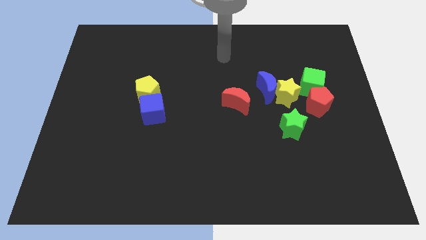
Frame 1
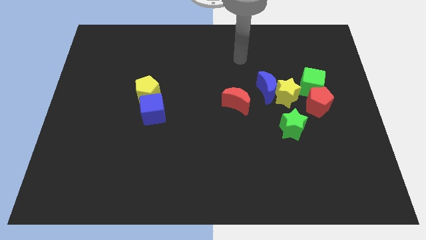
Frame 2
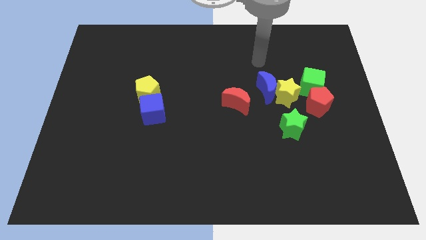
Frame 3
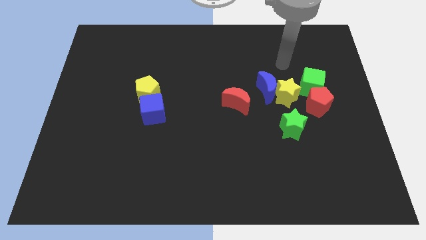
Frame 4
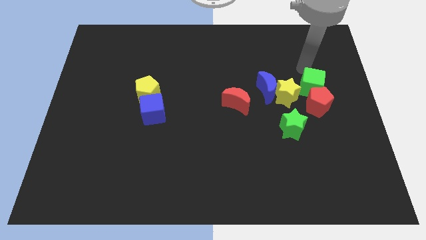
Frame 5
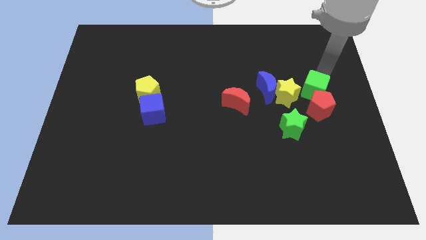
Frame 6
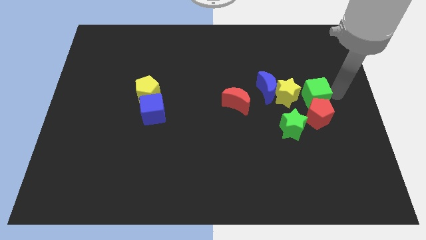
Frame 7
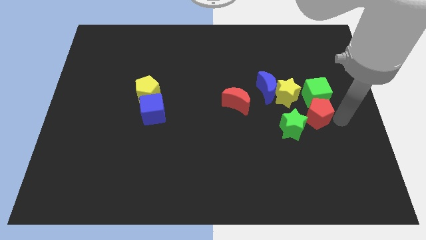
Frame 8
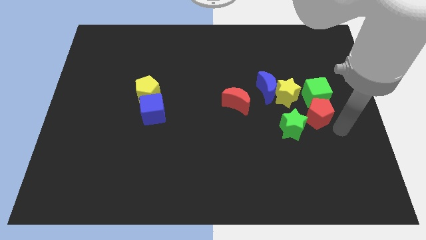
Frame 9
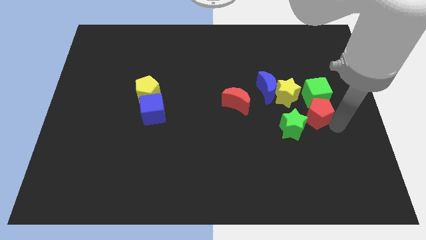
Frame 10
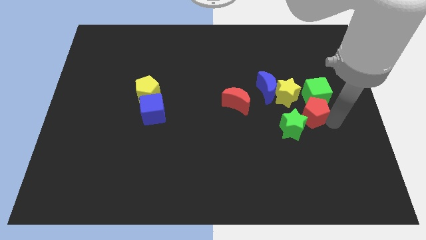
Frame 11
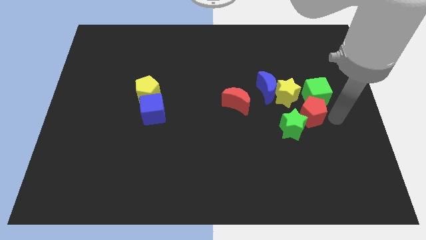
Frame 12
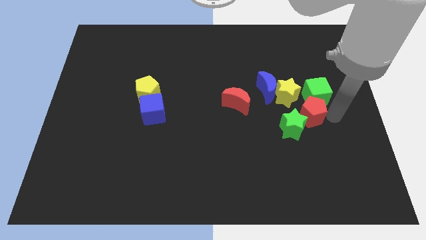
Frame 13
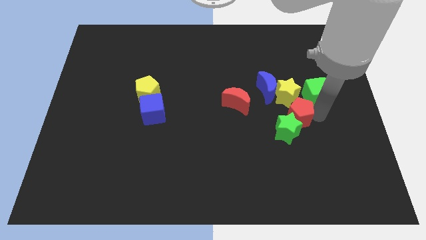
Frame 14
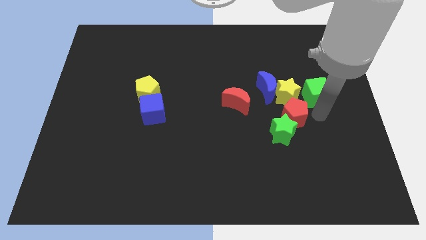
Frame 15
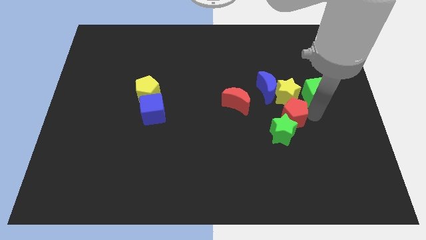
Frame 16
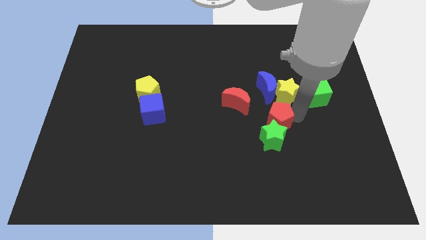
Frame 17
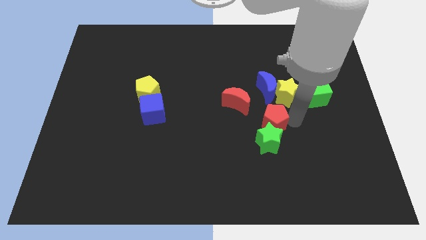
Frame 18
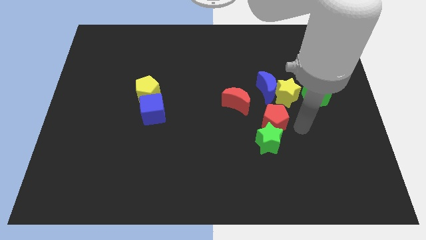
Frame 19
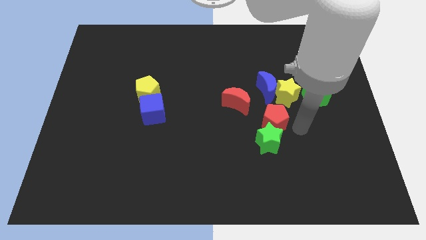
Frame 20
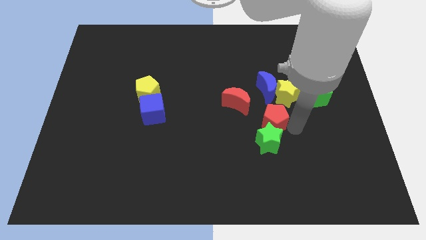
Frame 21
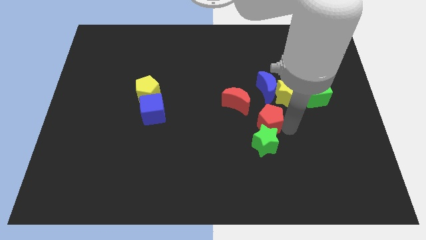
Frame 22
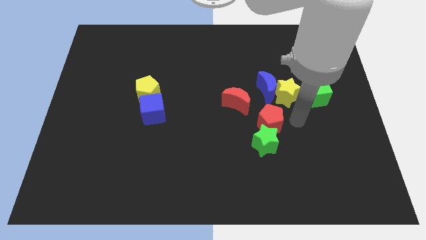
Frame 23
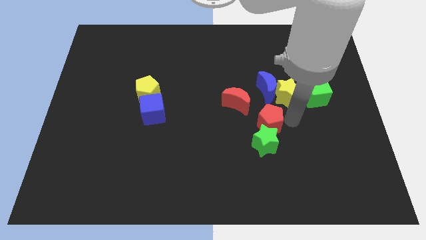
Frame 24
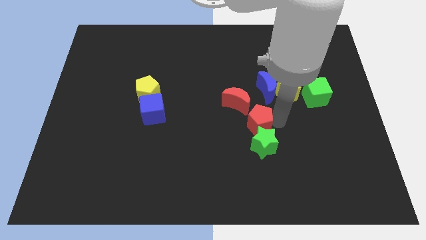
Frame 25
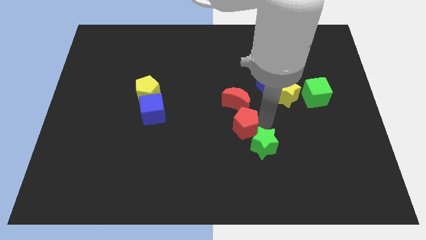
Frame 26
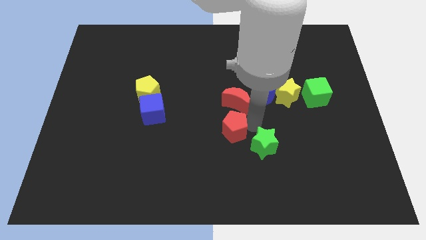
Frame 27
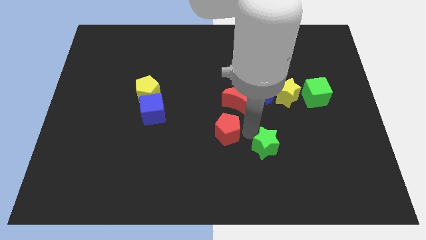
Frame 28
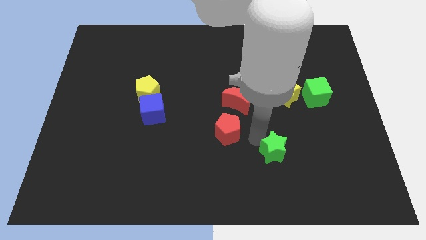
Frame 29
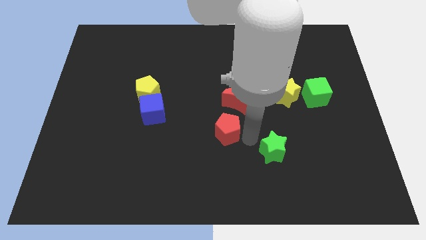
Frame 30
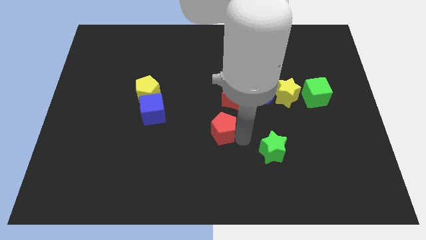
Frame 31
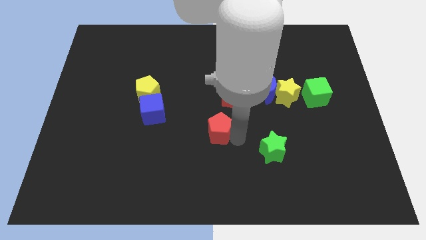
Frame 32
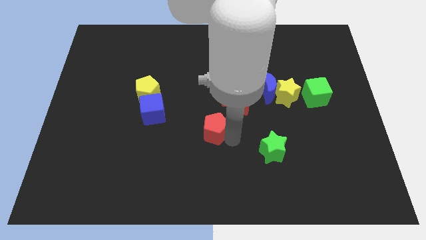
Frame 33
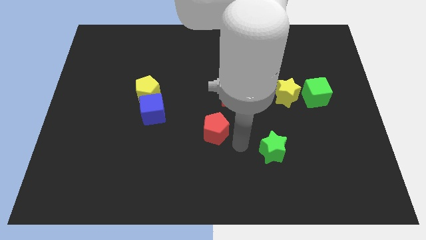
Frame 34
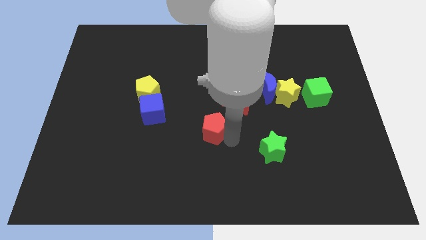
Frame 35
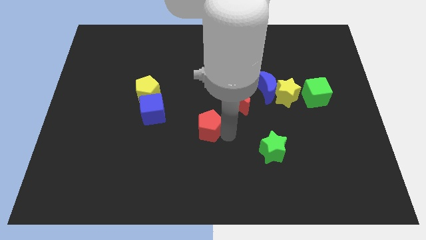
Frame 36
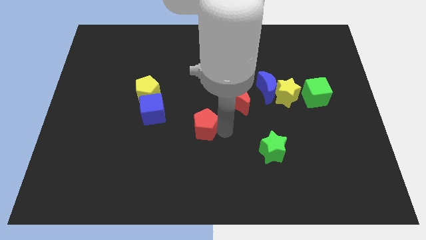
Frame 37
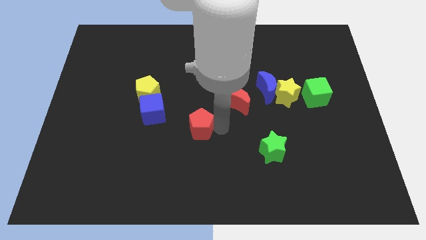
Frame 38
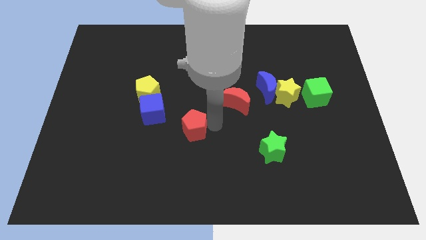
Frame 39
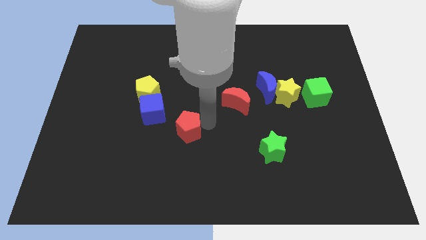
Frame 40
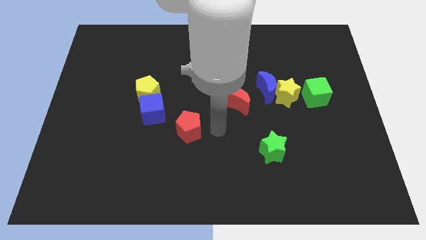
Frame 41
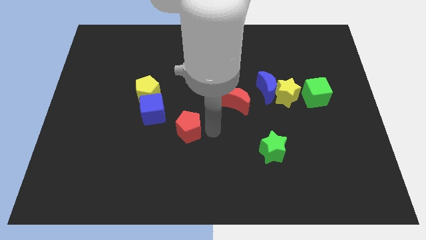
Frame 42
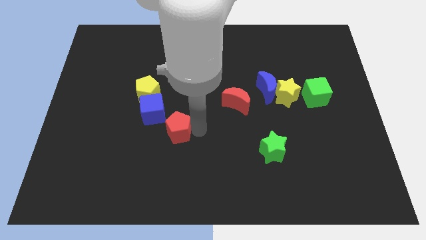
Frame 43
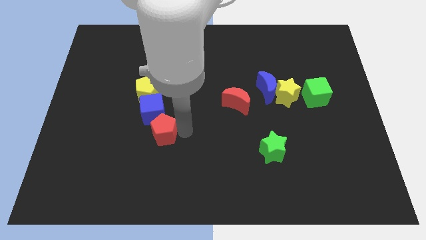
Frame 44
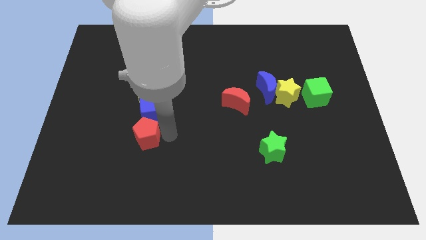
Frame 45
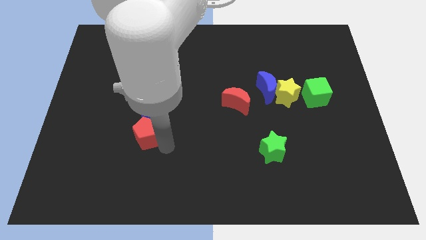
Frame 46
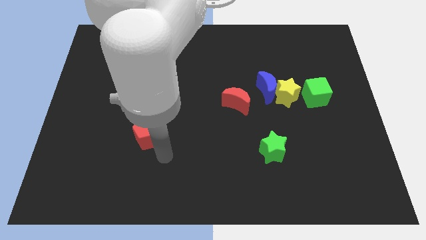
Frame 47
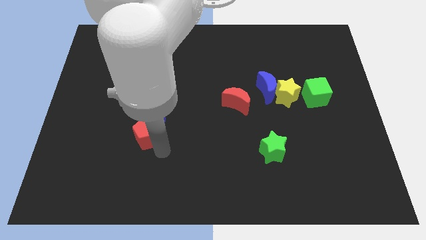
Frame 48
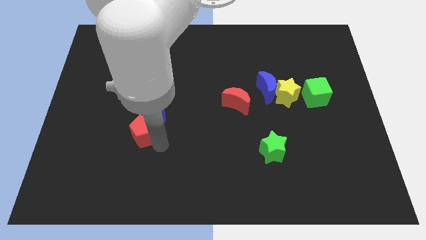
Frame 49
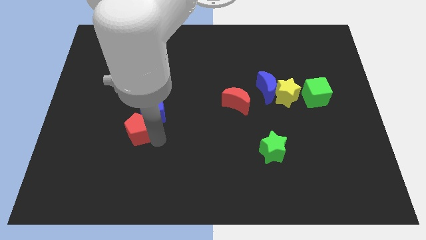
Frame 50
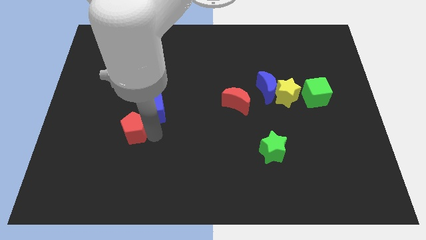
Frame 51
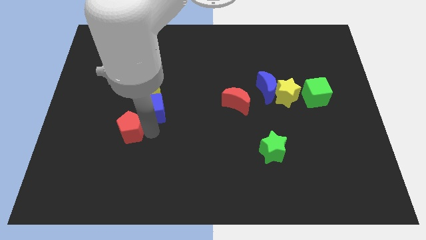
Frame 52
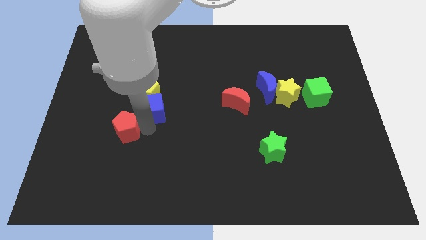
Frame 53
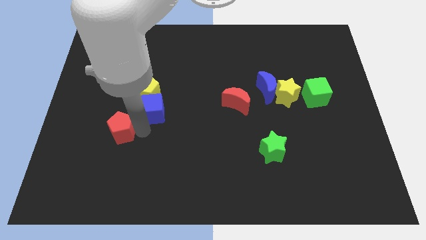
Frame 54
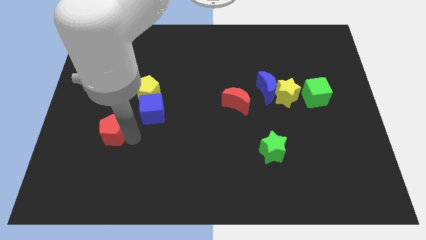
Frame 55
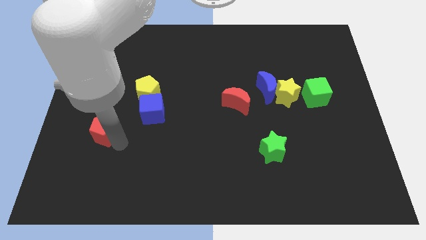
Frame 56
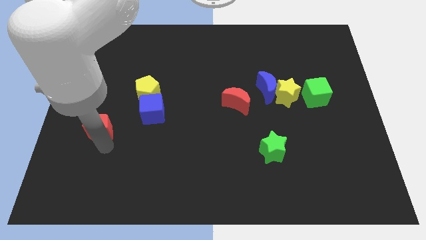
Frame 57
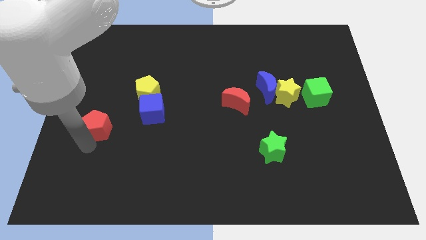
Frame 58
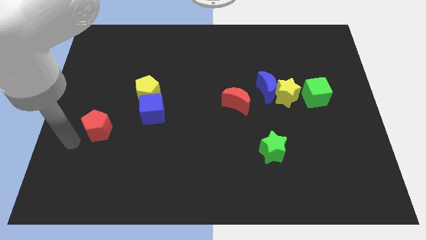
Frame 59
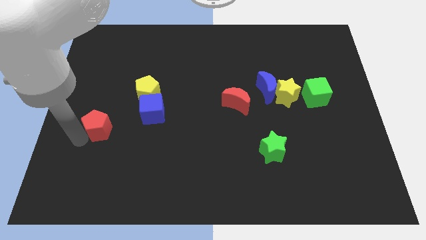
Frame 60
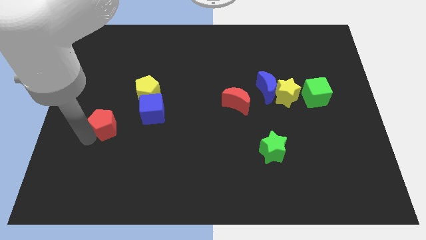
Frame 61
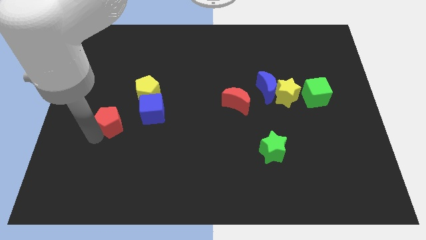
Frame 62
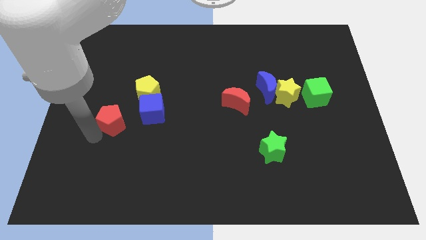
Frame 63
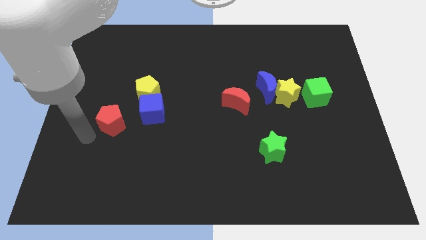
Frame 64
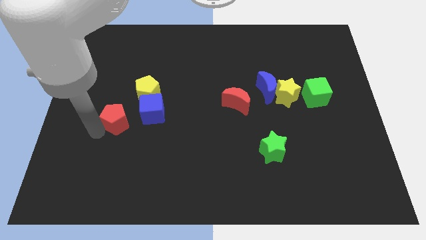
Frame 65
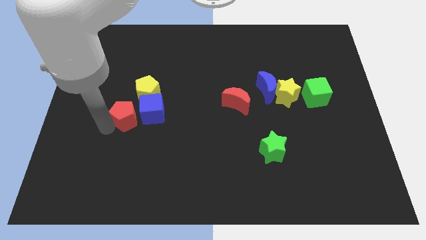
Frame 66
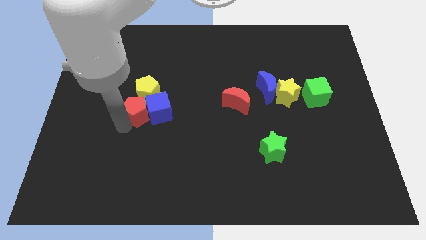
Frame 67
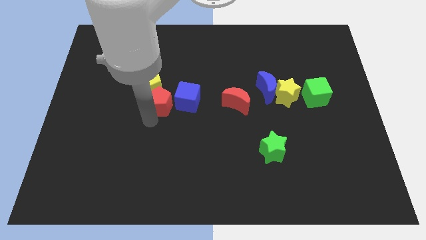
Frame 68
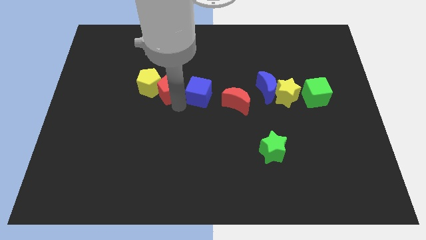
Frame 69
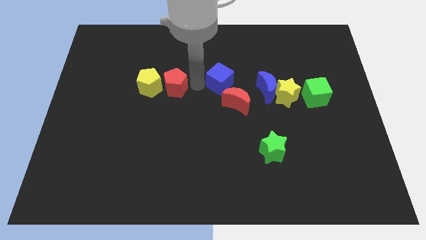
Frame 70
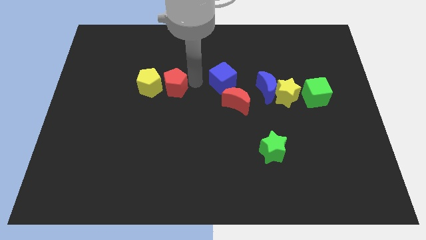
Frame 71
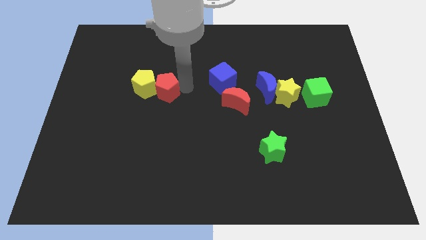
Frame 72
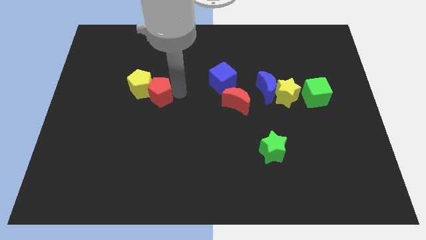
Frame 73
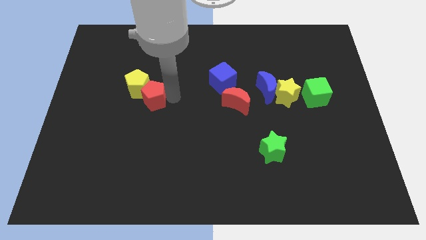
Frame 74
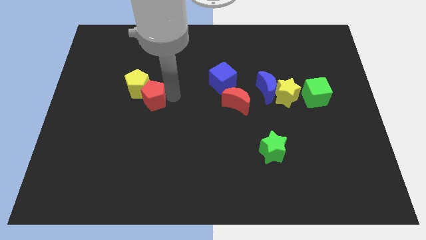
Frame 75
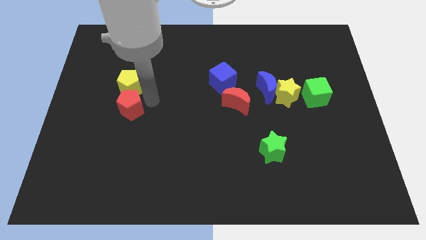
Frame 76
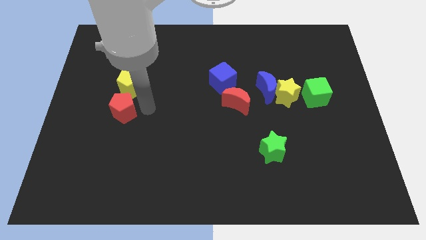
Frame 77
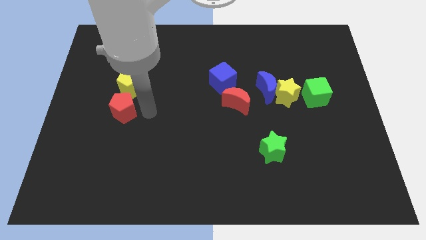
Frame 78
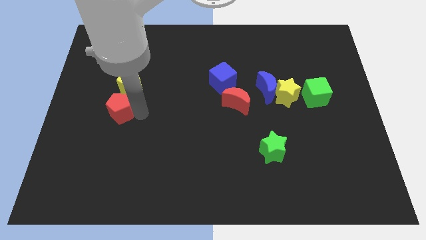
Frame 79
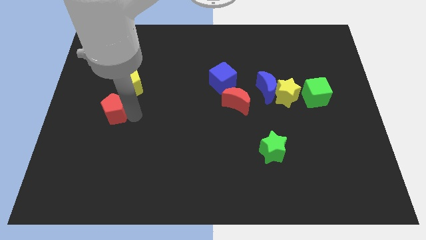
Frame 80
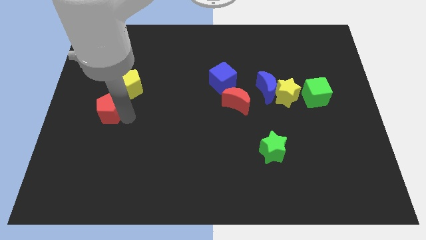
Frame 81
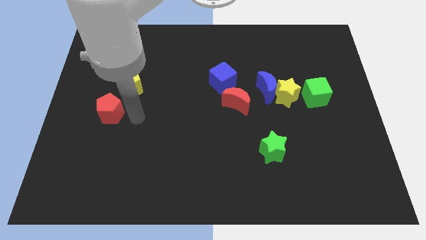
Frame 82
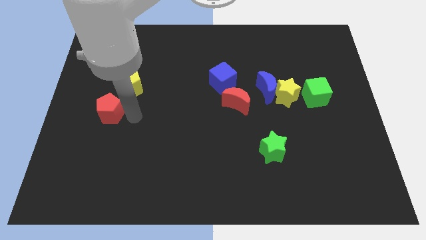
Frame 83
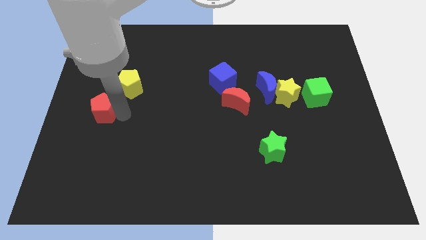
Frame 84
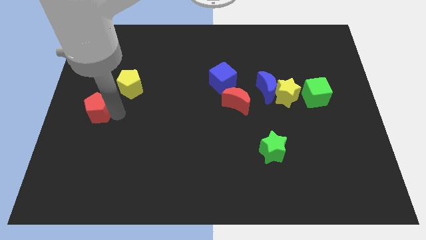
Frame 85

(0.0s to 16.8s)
move the red pentagon to the left side
